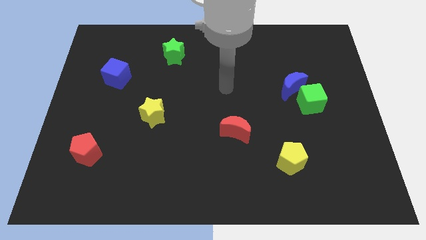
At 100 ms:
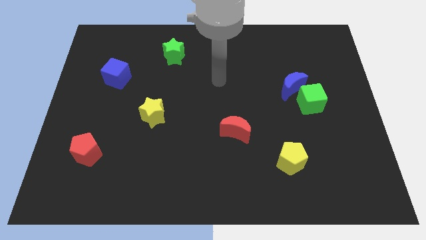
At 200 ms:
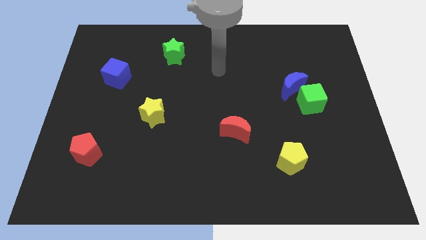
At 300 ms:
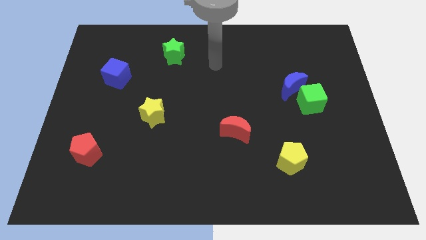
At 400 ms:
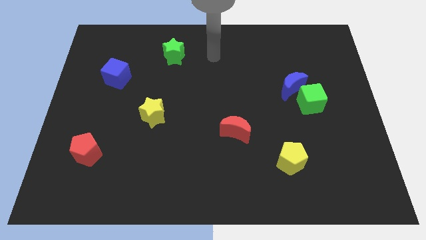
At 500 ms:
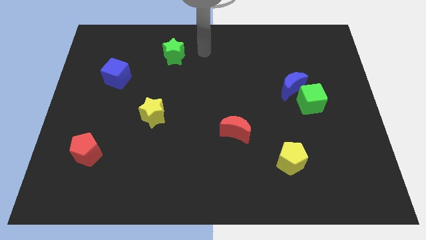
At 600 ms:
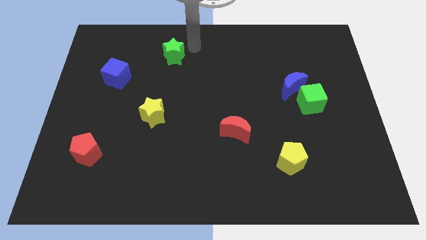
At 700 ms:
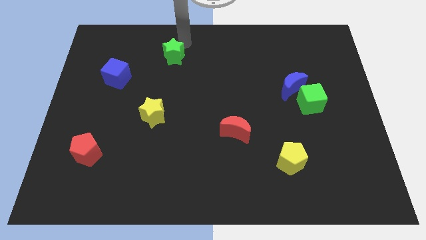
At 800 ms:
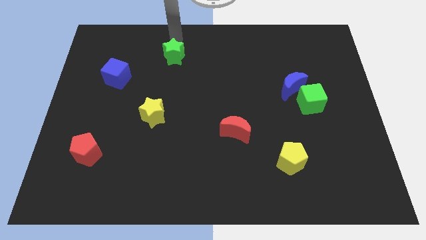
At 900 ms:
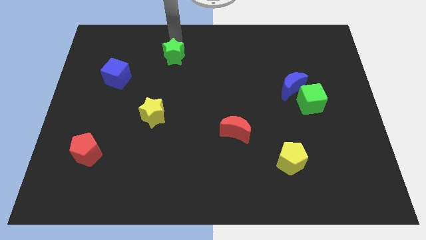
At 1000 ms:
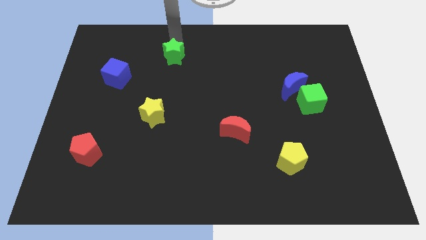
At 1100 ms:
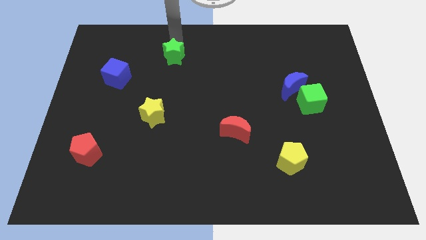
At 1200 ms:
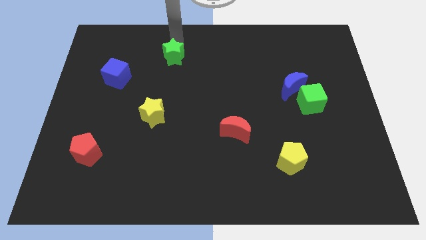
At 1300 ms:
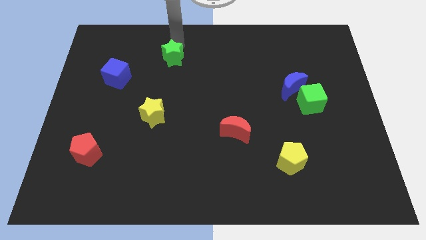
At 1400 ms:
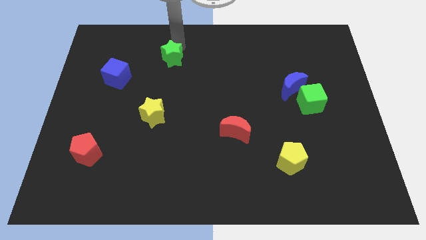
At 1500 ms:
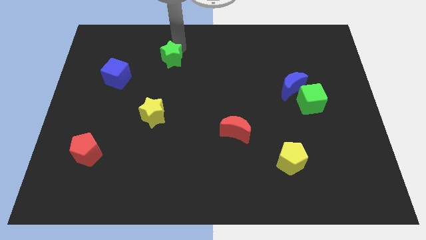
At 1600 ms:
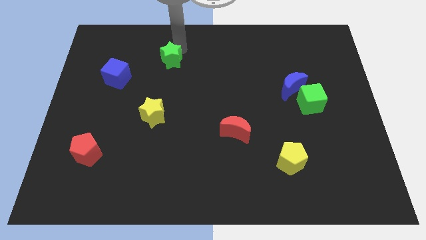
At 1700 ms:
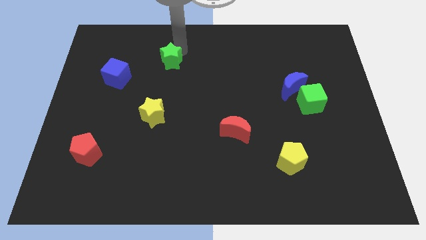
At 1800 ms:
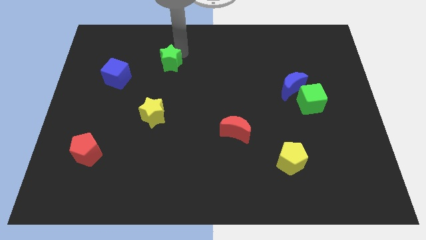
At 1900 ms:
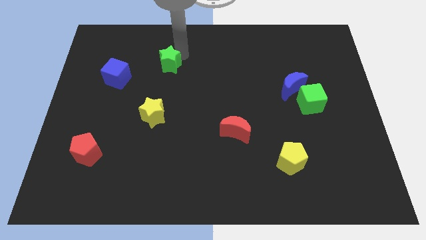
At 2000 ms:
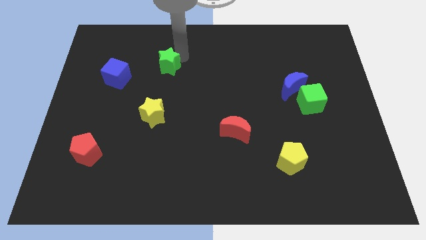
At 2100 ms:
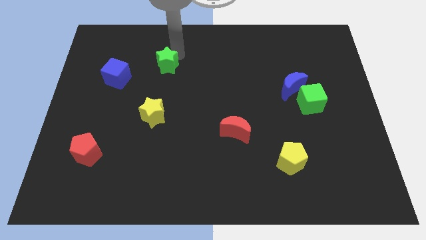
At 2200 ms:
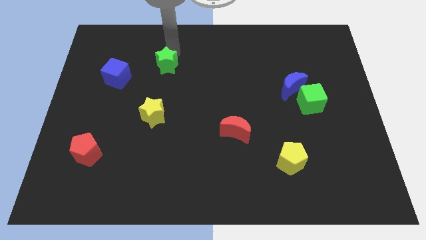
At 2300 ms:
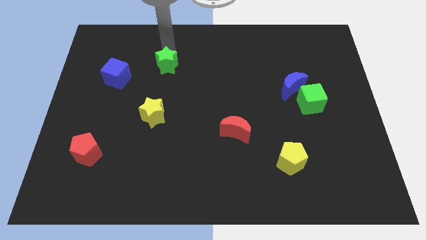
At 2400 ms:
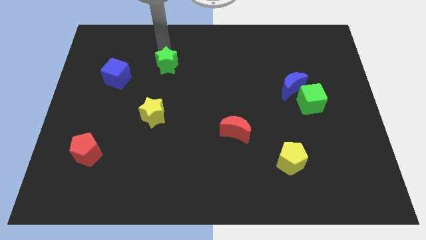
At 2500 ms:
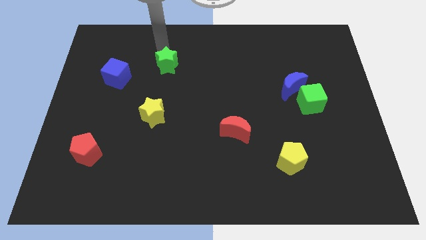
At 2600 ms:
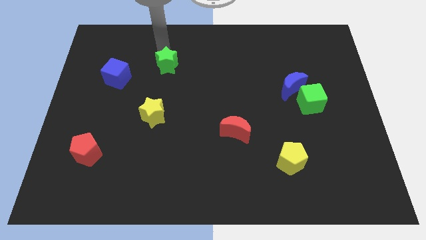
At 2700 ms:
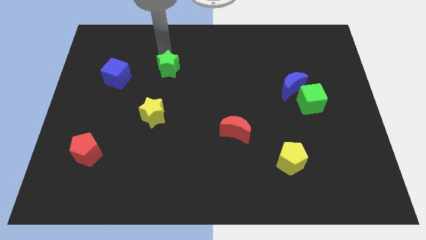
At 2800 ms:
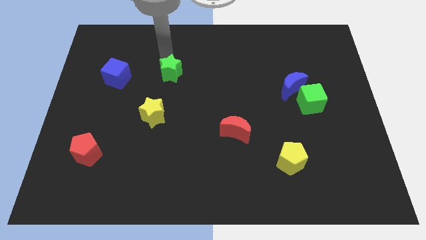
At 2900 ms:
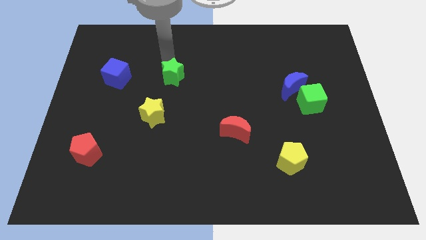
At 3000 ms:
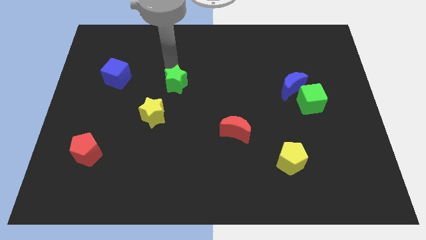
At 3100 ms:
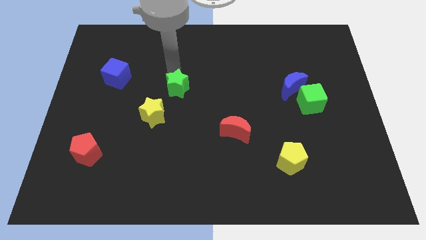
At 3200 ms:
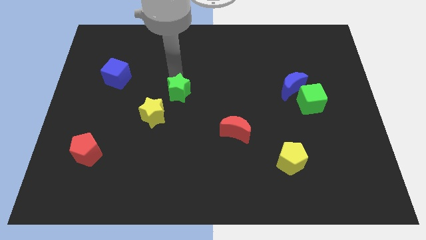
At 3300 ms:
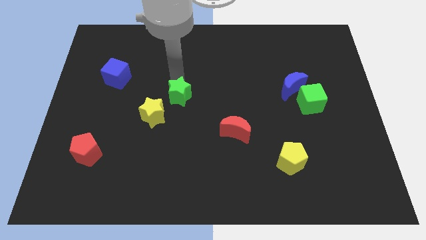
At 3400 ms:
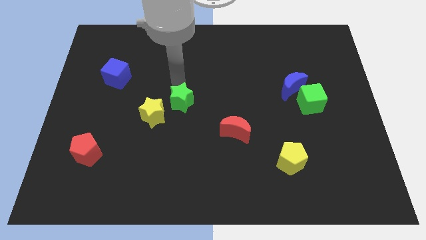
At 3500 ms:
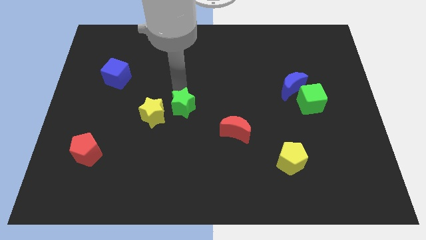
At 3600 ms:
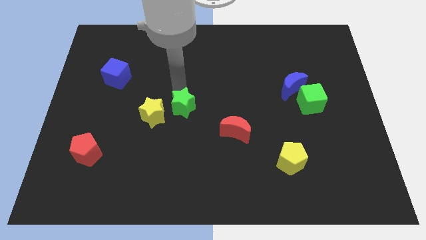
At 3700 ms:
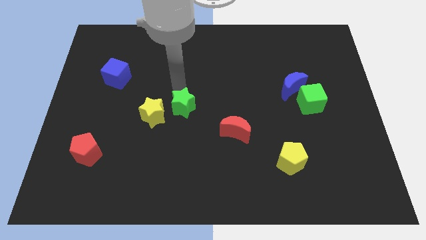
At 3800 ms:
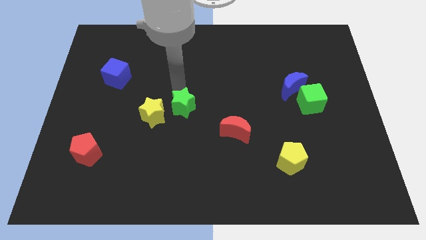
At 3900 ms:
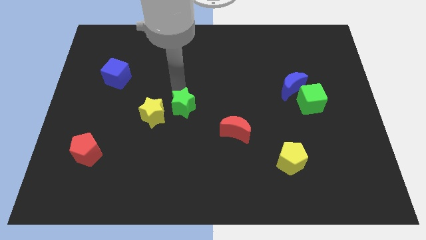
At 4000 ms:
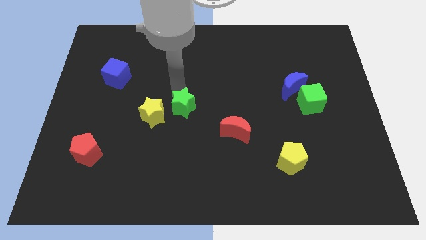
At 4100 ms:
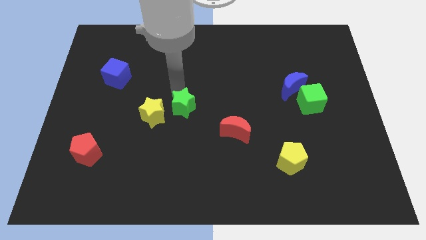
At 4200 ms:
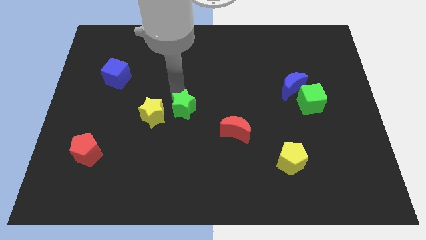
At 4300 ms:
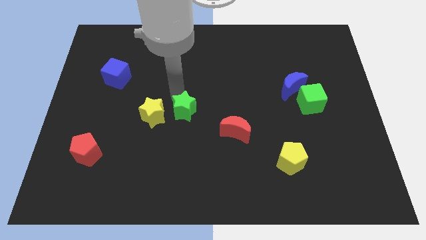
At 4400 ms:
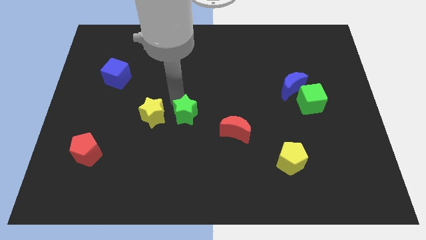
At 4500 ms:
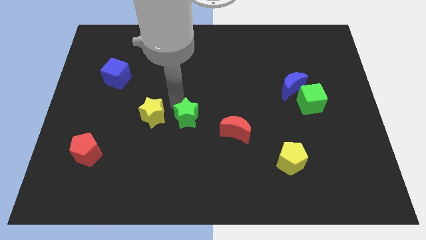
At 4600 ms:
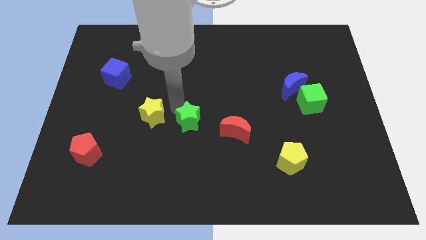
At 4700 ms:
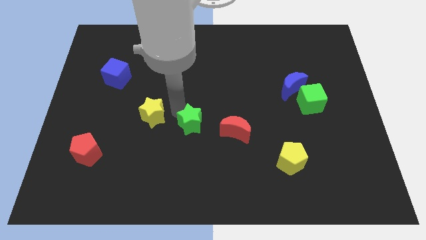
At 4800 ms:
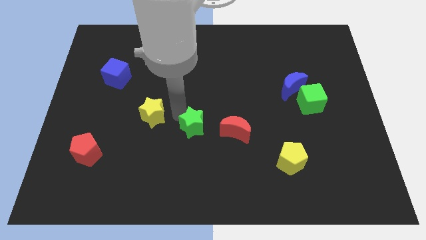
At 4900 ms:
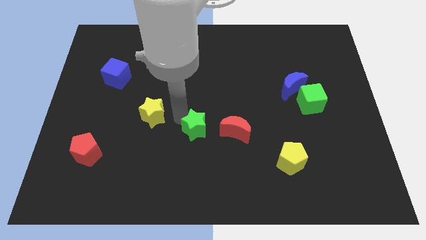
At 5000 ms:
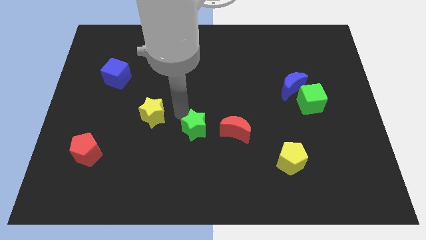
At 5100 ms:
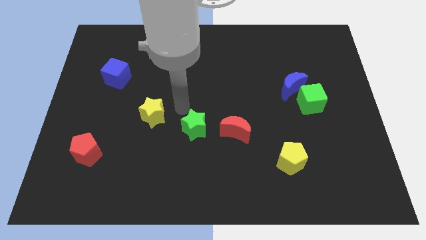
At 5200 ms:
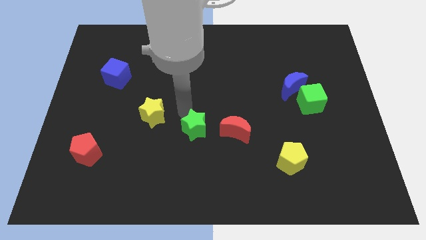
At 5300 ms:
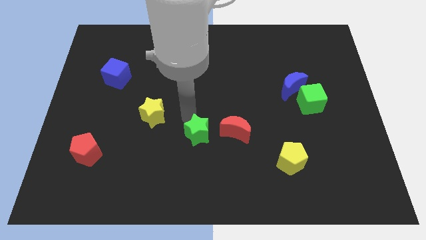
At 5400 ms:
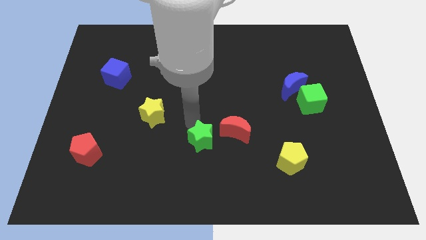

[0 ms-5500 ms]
push the green star diagonally down and to the left of the red moon

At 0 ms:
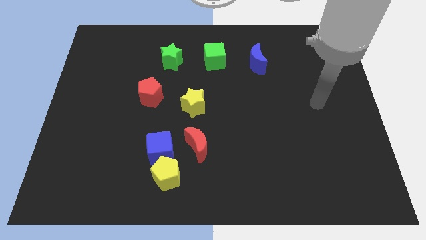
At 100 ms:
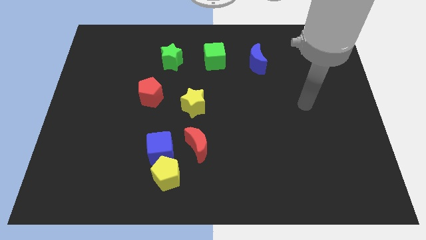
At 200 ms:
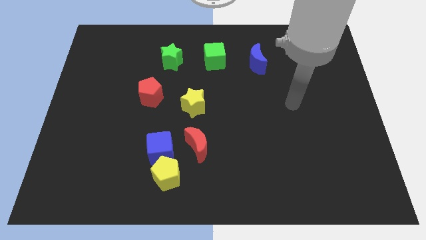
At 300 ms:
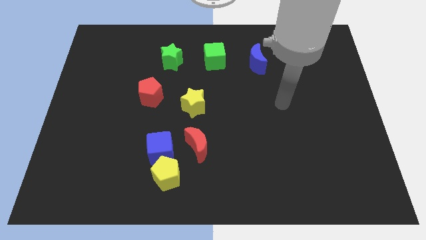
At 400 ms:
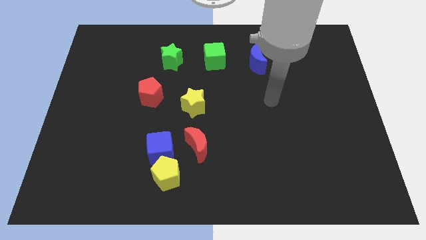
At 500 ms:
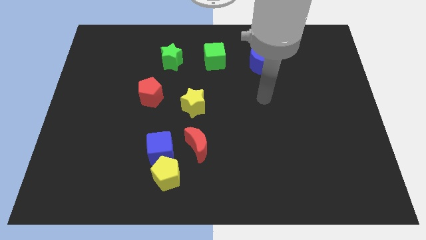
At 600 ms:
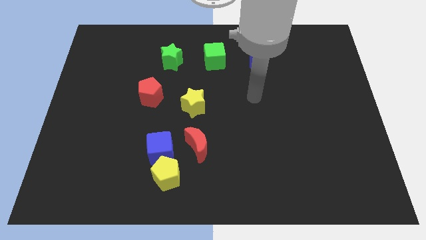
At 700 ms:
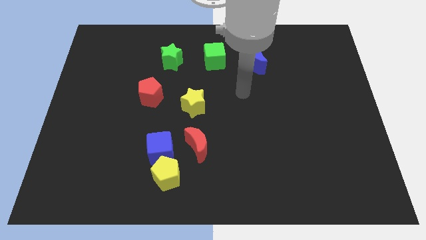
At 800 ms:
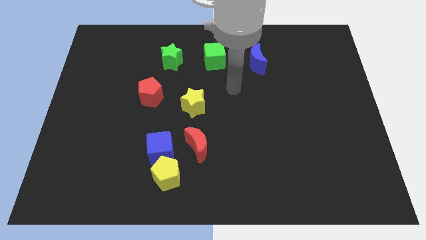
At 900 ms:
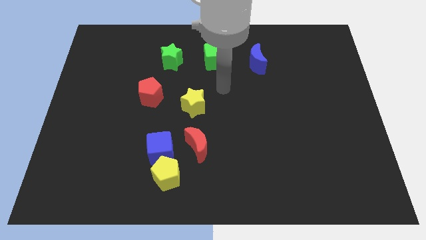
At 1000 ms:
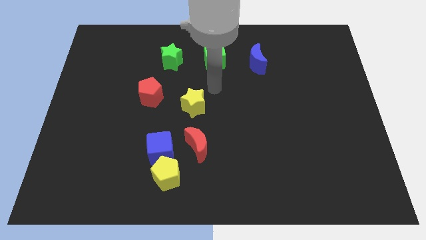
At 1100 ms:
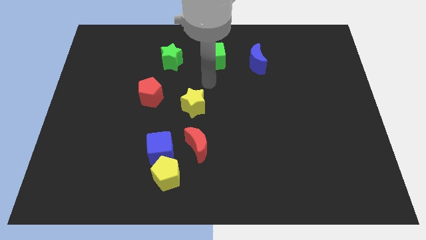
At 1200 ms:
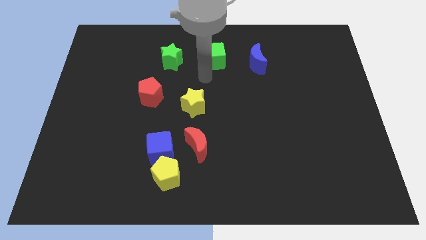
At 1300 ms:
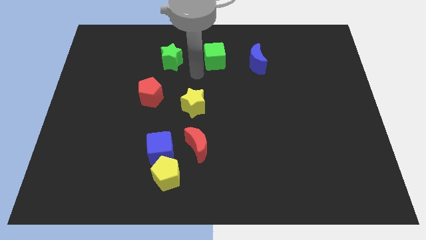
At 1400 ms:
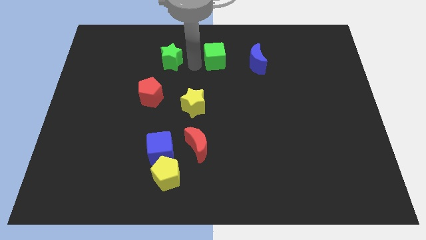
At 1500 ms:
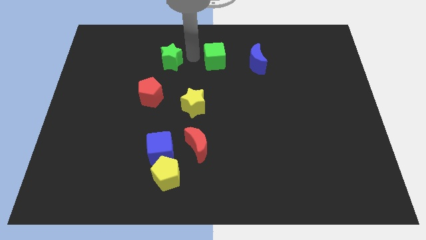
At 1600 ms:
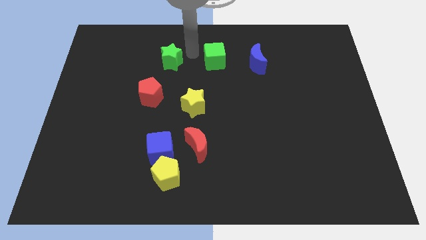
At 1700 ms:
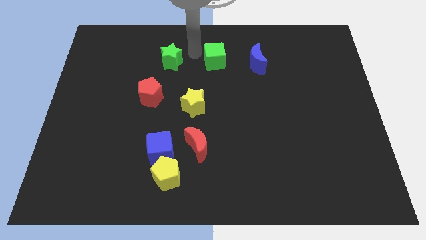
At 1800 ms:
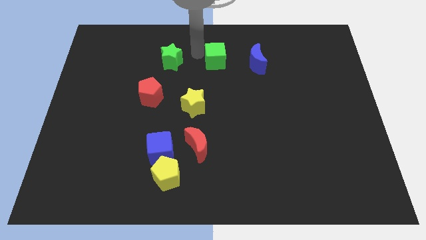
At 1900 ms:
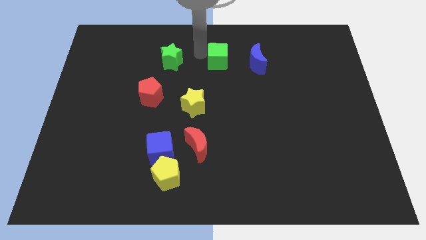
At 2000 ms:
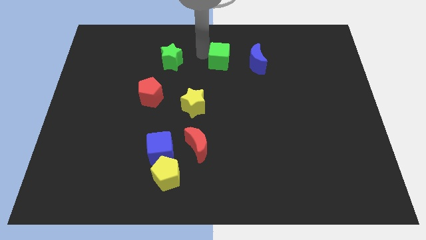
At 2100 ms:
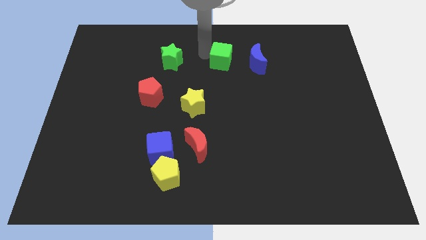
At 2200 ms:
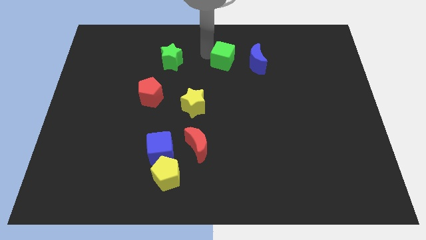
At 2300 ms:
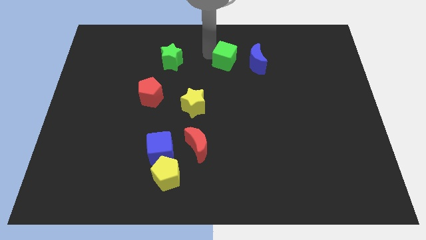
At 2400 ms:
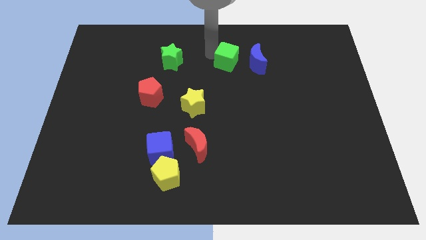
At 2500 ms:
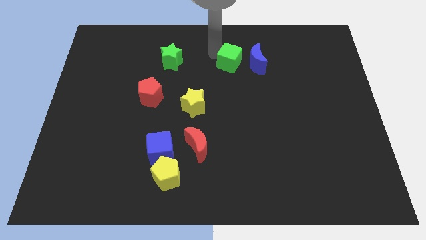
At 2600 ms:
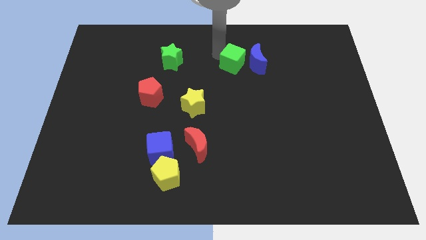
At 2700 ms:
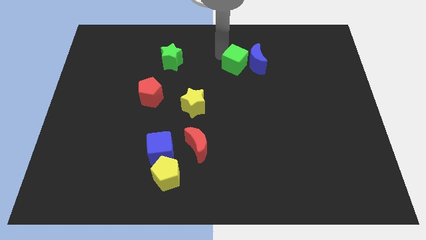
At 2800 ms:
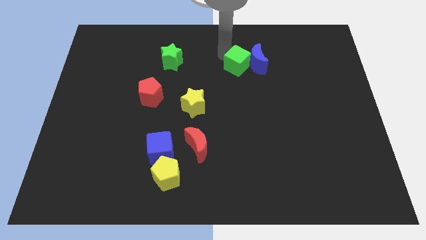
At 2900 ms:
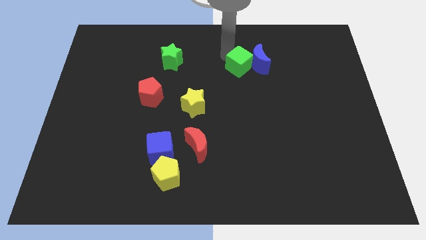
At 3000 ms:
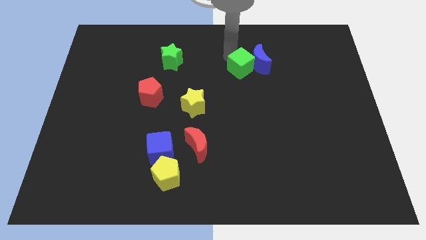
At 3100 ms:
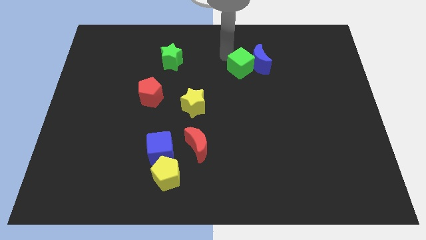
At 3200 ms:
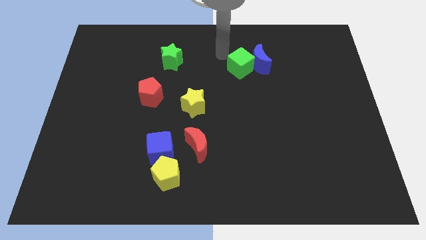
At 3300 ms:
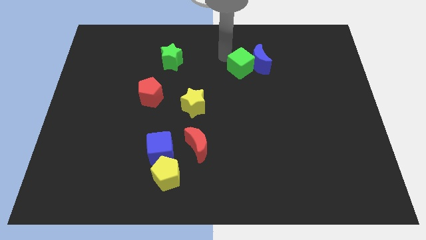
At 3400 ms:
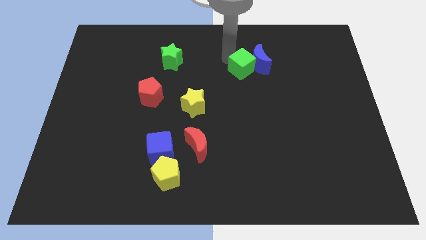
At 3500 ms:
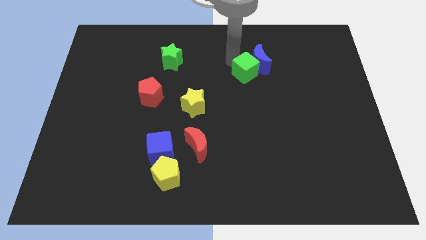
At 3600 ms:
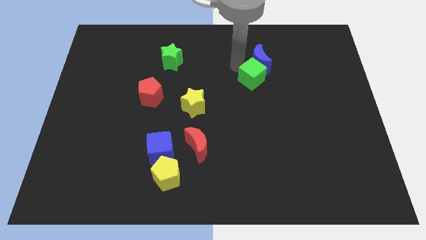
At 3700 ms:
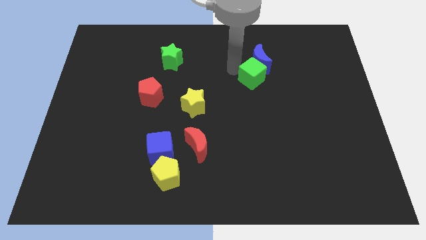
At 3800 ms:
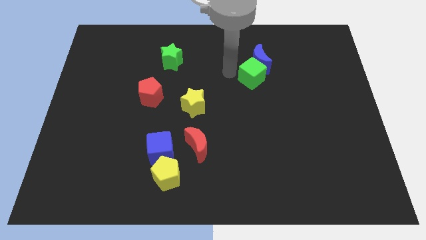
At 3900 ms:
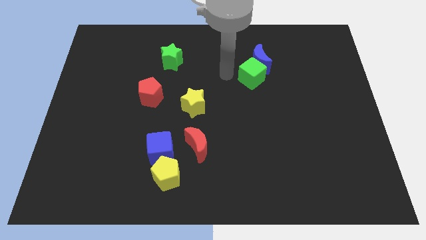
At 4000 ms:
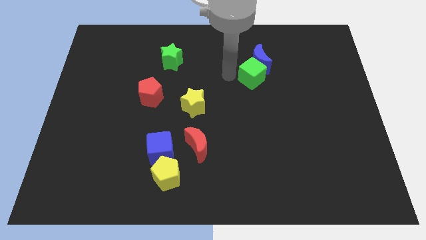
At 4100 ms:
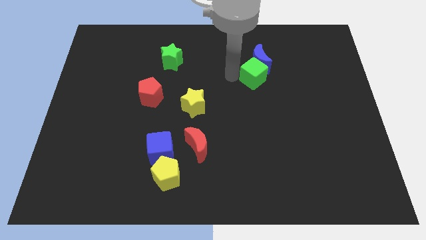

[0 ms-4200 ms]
move the green cube to the bottom right of the blue moon
